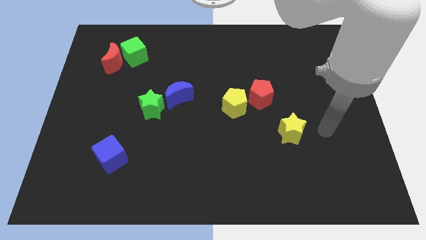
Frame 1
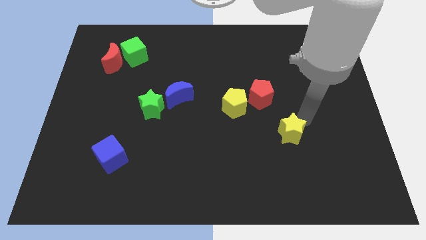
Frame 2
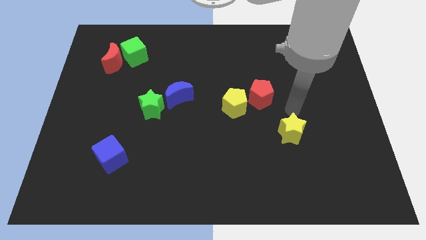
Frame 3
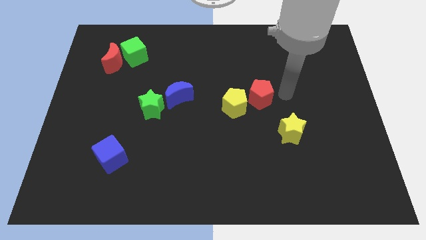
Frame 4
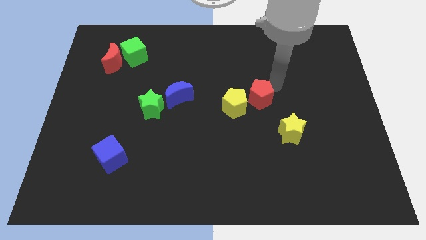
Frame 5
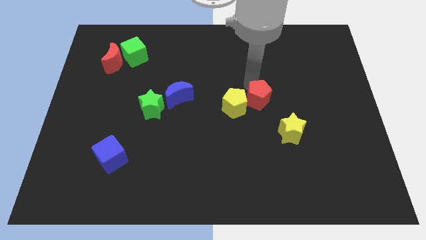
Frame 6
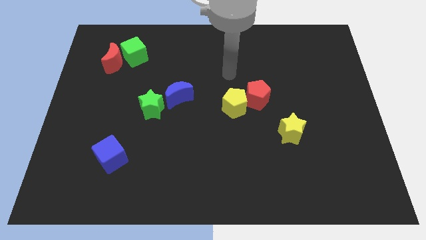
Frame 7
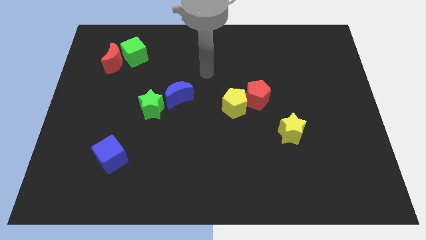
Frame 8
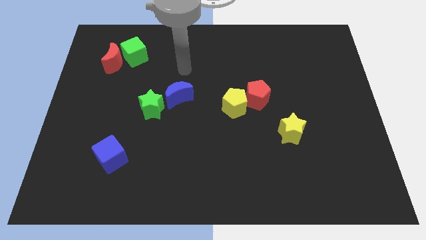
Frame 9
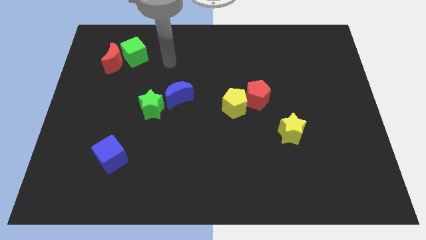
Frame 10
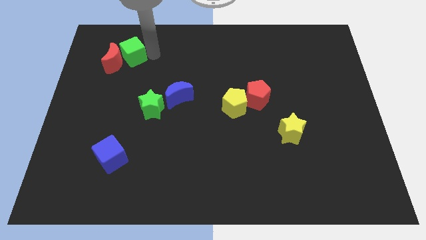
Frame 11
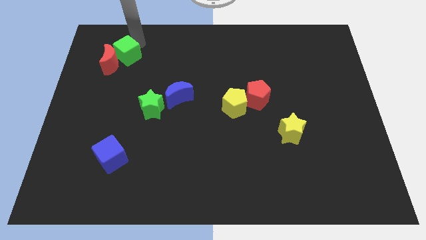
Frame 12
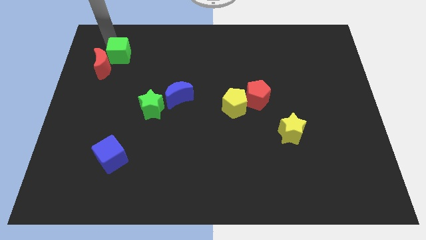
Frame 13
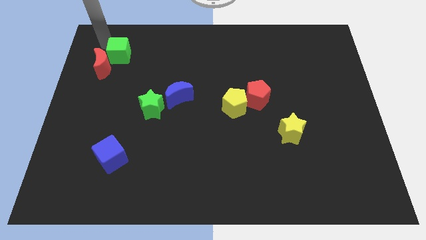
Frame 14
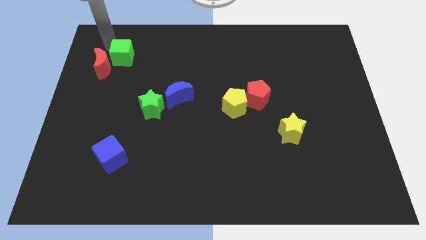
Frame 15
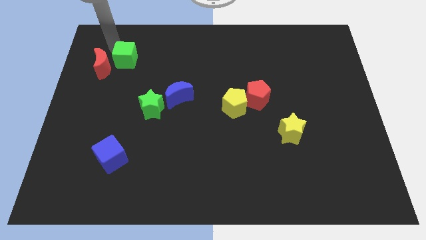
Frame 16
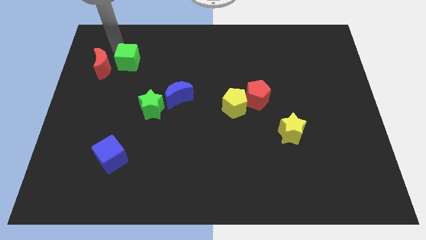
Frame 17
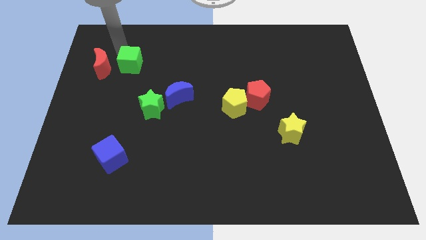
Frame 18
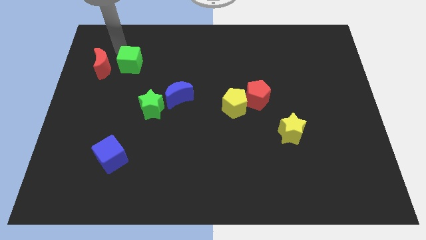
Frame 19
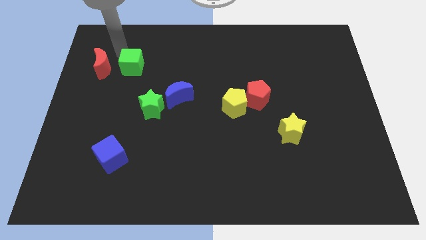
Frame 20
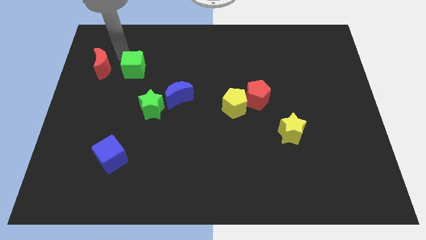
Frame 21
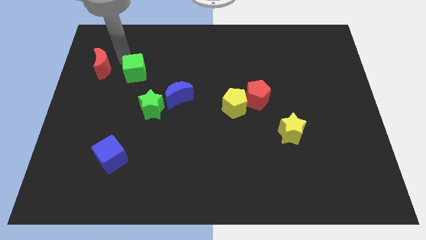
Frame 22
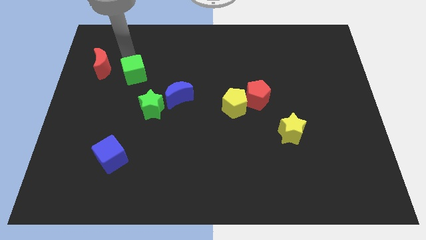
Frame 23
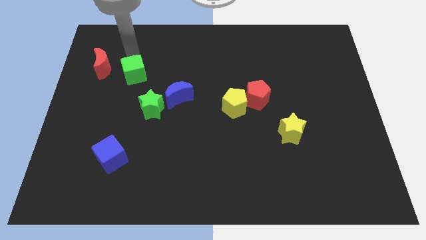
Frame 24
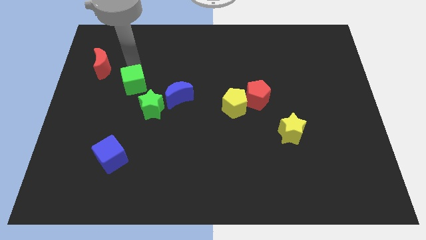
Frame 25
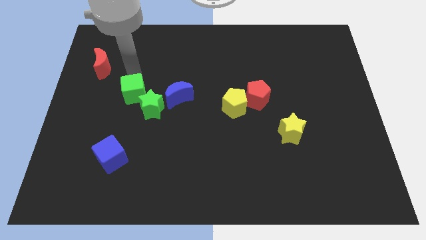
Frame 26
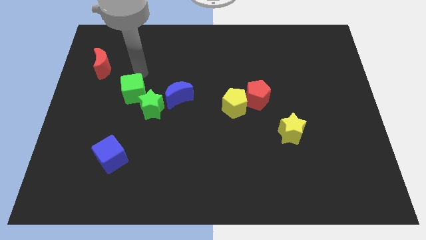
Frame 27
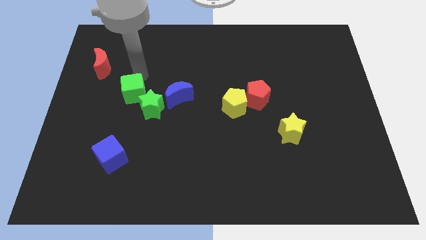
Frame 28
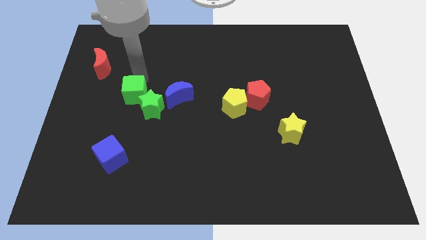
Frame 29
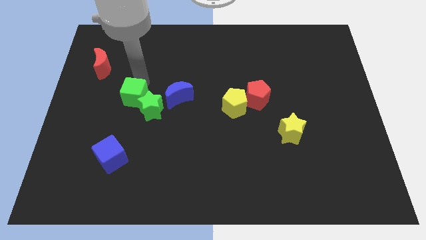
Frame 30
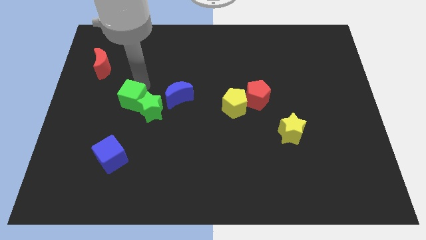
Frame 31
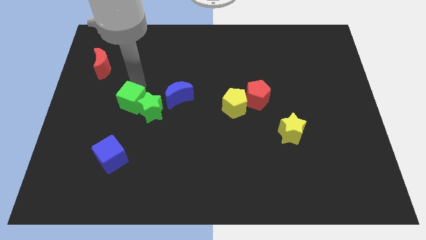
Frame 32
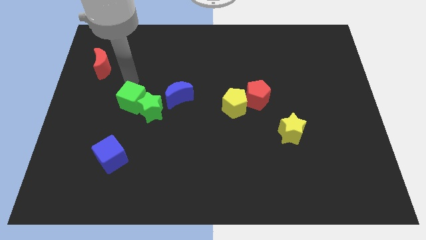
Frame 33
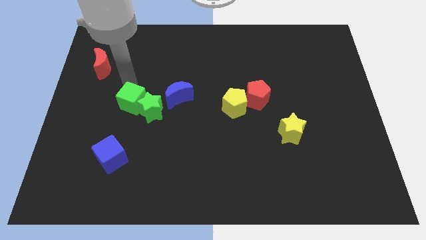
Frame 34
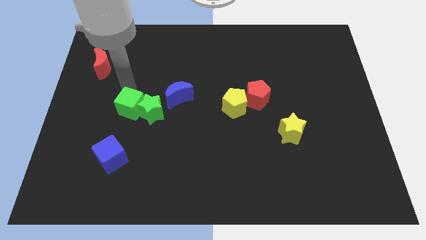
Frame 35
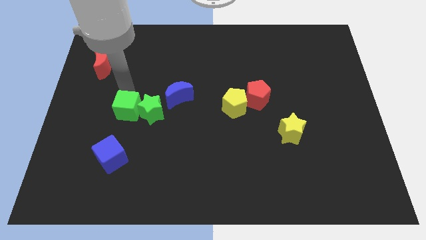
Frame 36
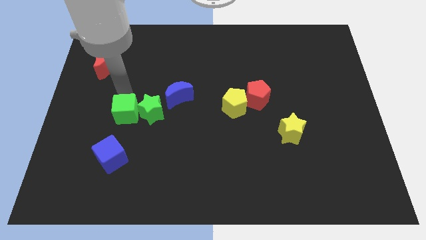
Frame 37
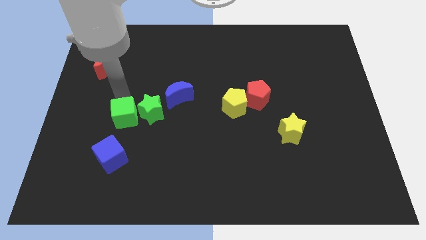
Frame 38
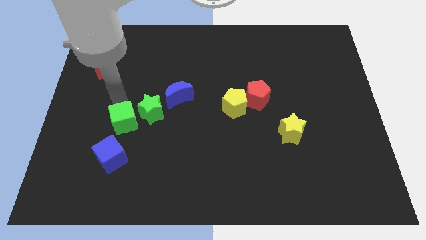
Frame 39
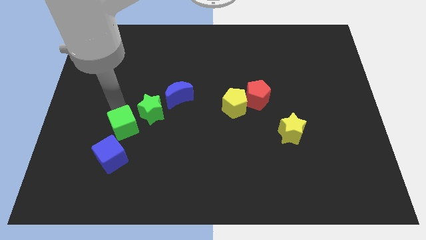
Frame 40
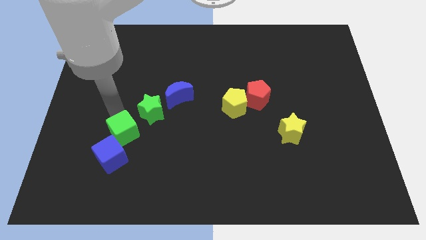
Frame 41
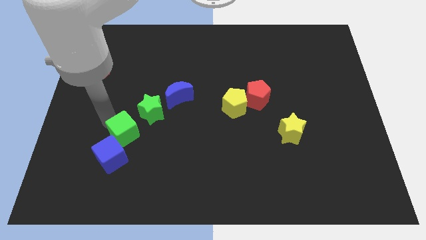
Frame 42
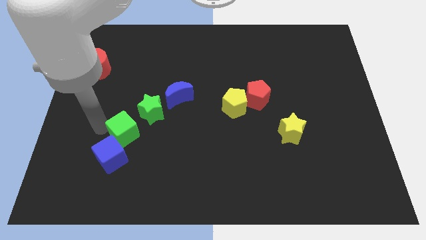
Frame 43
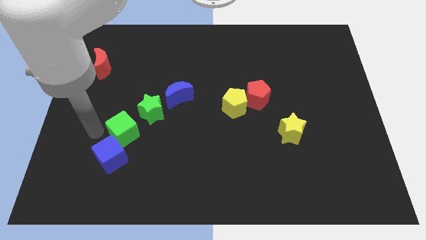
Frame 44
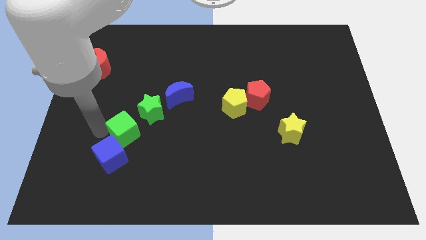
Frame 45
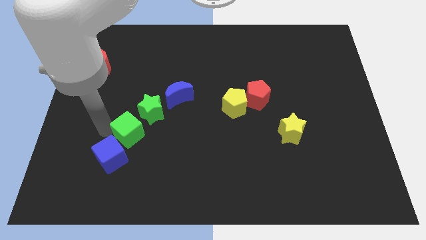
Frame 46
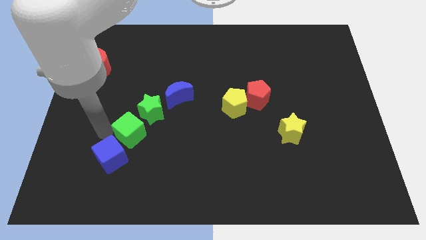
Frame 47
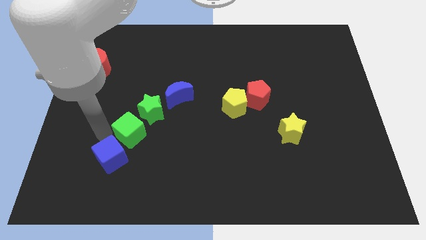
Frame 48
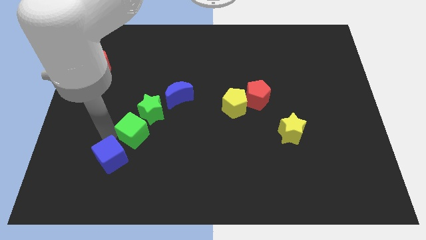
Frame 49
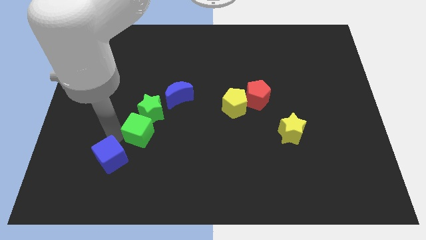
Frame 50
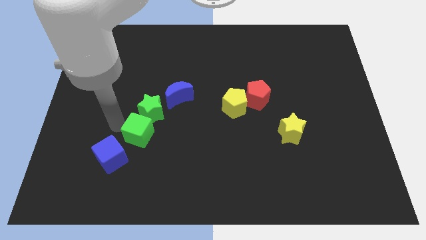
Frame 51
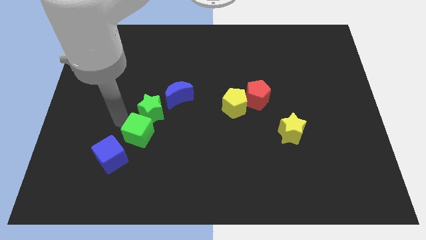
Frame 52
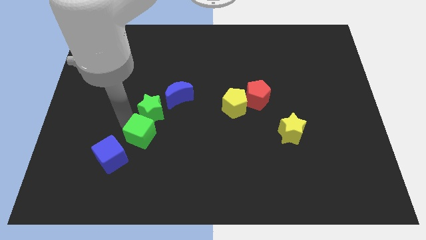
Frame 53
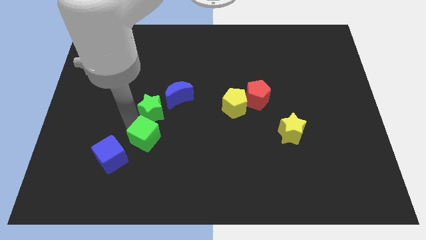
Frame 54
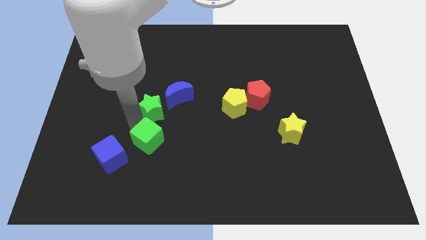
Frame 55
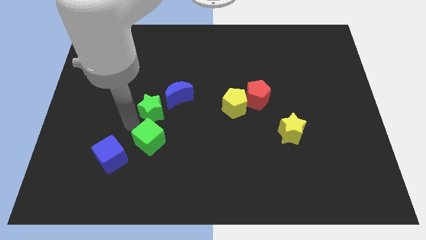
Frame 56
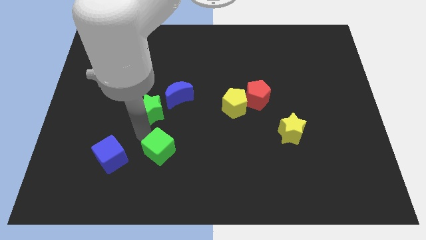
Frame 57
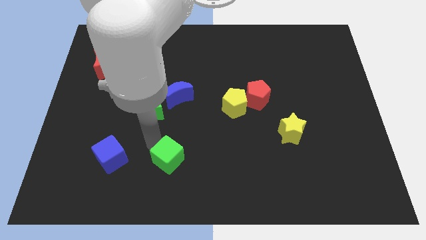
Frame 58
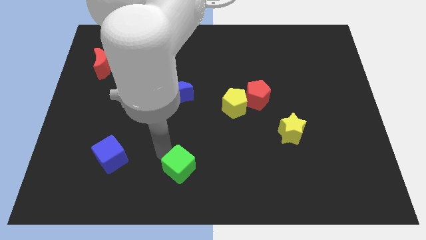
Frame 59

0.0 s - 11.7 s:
put the green cube to the bottom side

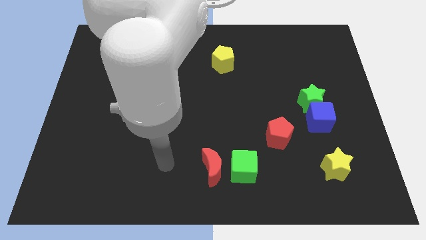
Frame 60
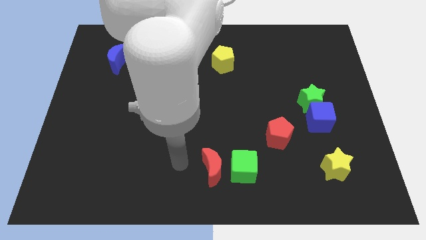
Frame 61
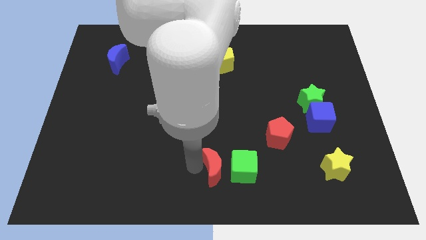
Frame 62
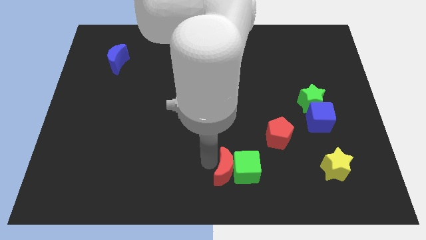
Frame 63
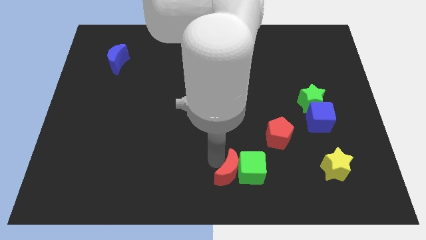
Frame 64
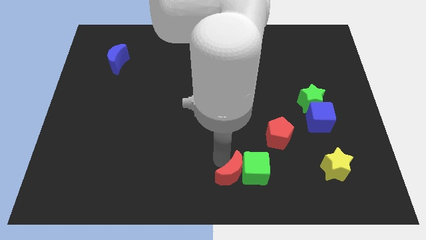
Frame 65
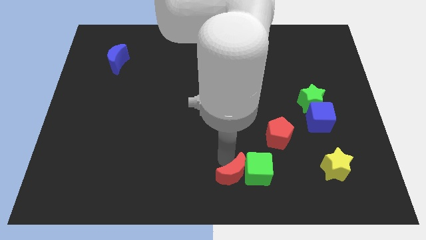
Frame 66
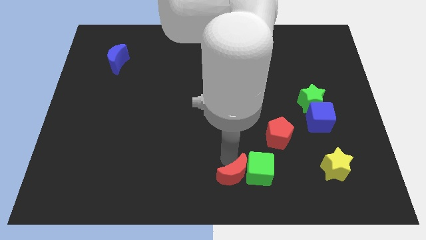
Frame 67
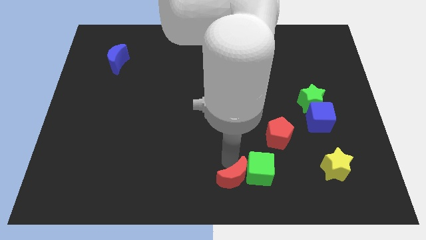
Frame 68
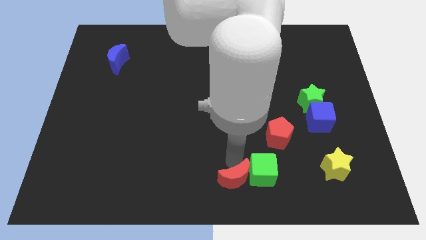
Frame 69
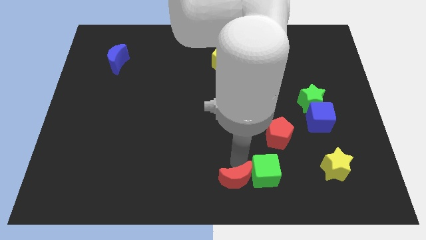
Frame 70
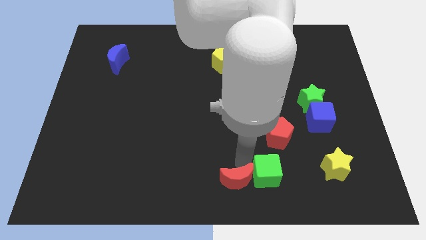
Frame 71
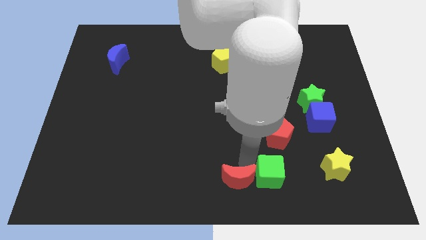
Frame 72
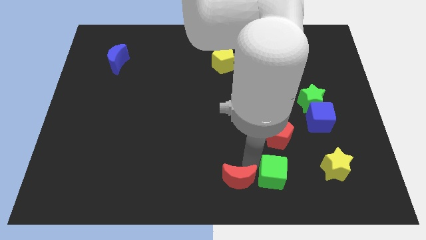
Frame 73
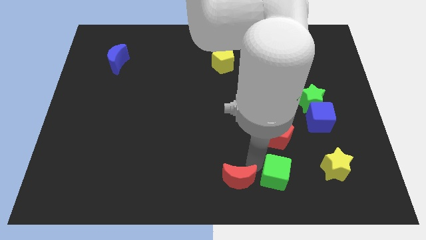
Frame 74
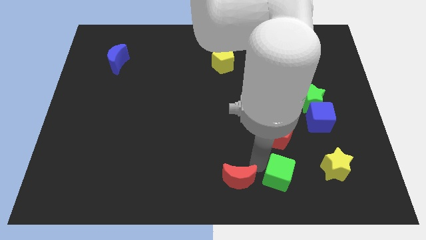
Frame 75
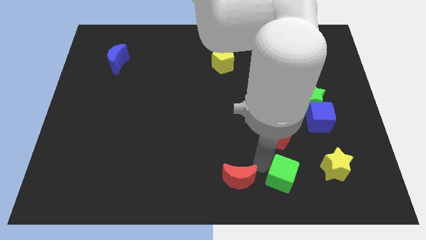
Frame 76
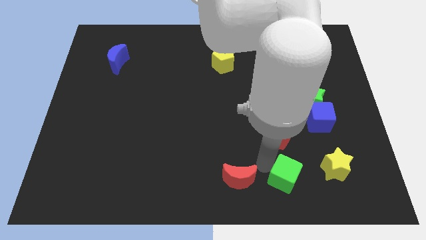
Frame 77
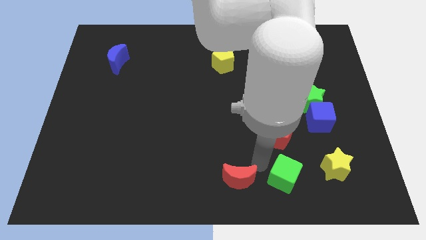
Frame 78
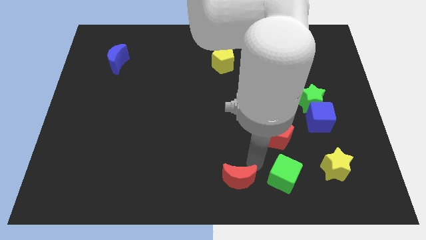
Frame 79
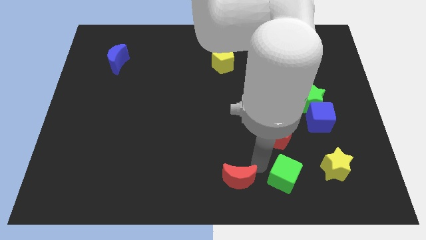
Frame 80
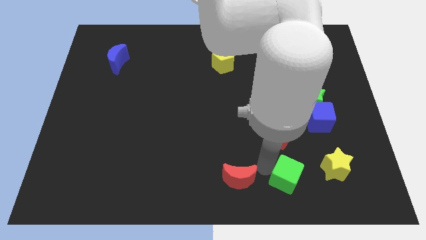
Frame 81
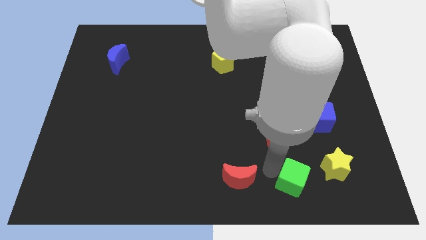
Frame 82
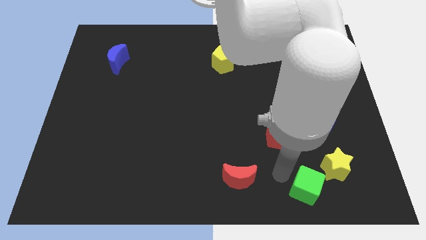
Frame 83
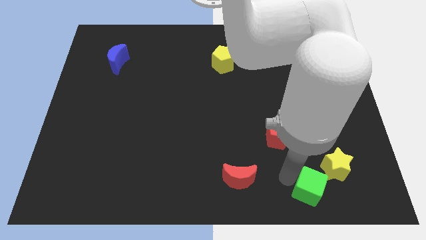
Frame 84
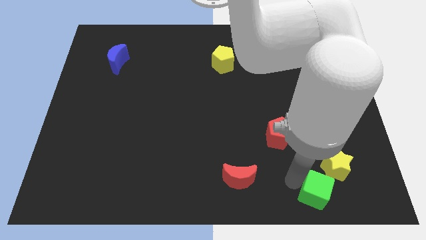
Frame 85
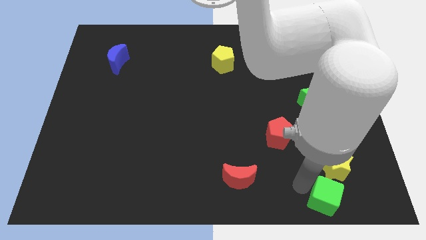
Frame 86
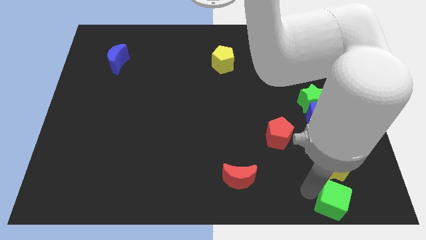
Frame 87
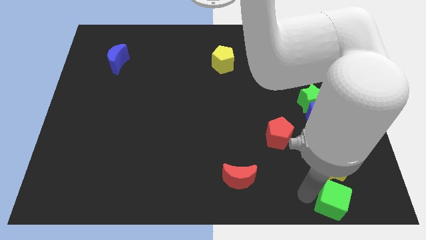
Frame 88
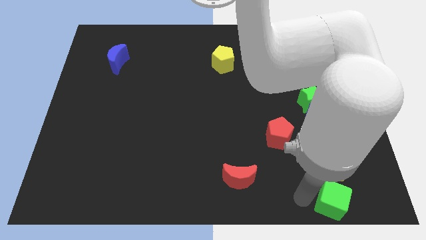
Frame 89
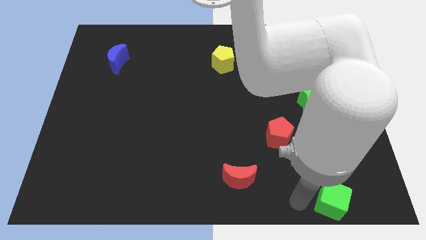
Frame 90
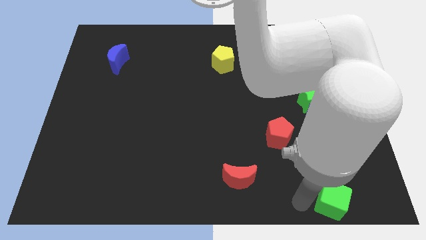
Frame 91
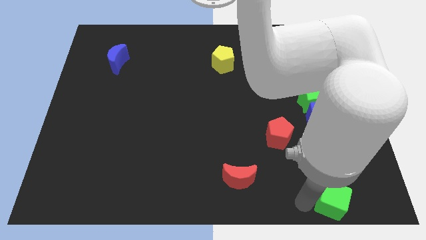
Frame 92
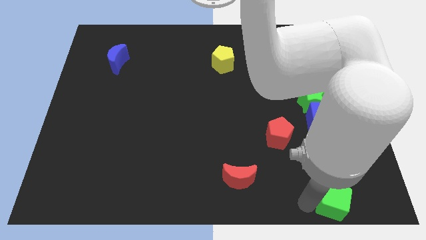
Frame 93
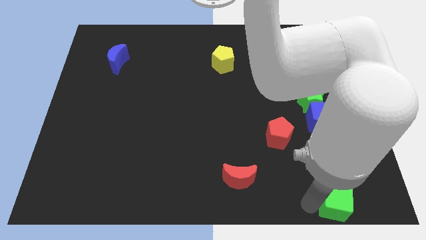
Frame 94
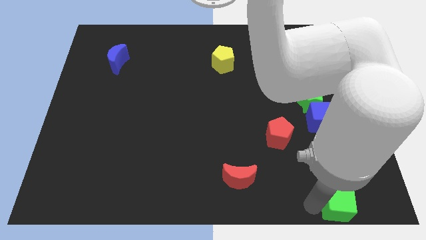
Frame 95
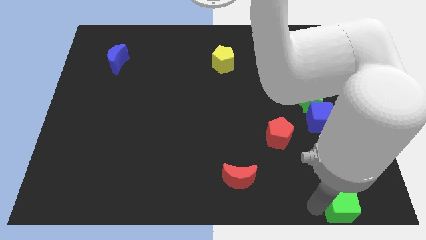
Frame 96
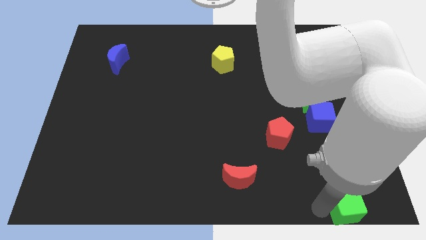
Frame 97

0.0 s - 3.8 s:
move the green cube to the bottom right
